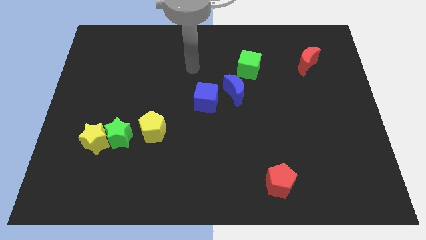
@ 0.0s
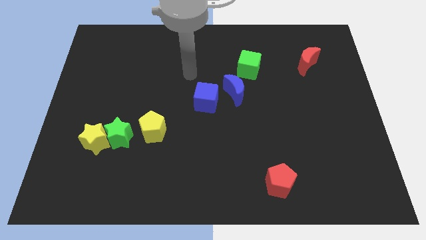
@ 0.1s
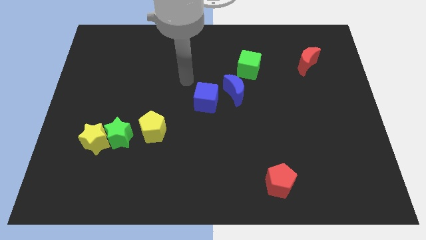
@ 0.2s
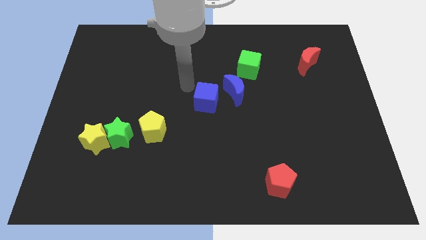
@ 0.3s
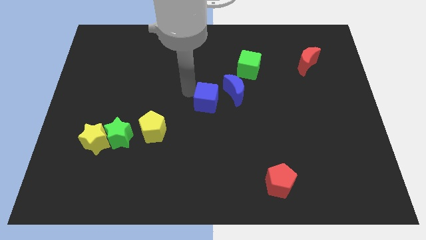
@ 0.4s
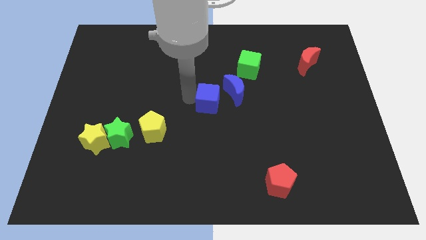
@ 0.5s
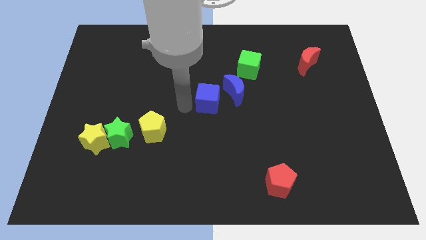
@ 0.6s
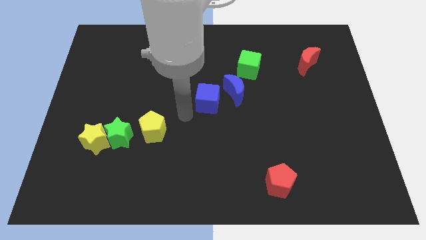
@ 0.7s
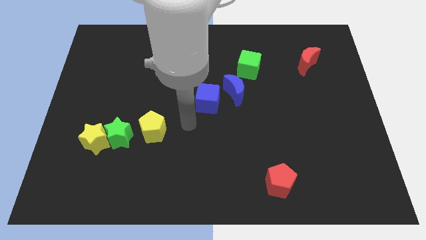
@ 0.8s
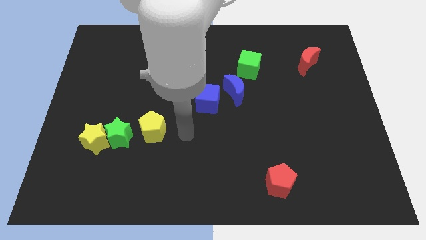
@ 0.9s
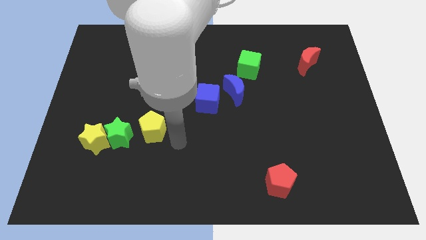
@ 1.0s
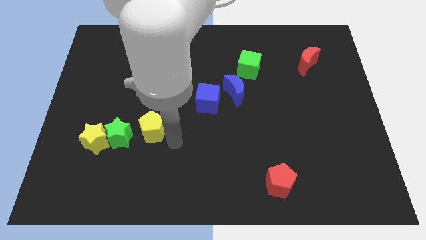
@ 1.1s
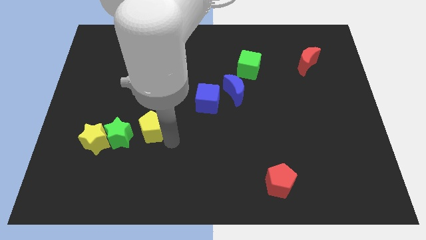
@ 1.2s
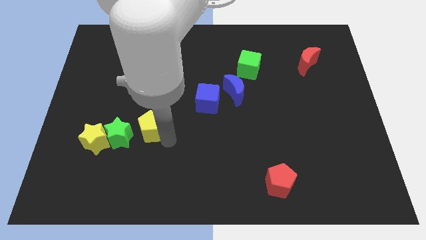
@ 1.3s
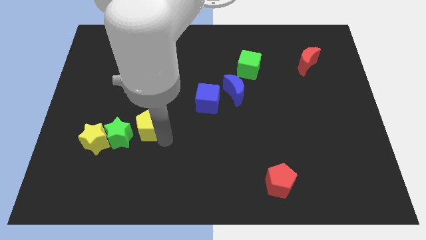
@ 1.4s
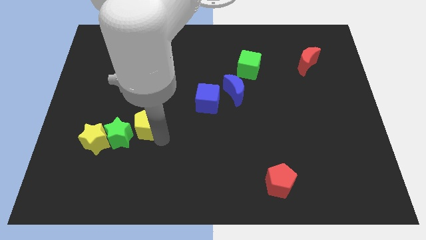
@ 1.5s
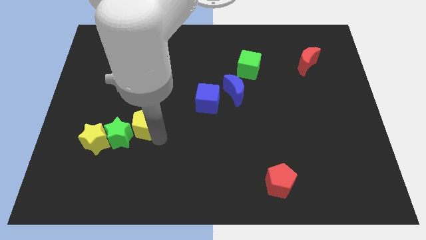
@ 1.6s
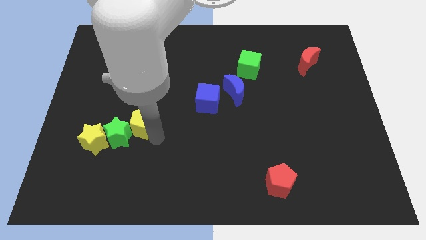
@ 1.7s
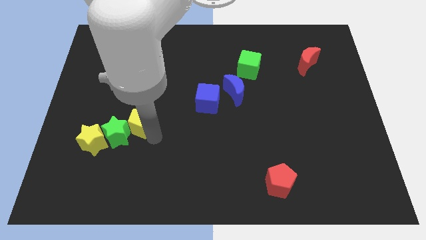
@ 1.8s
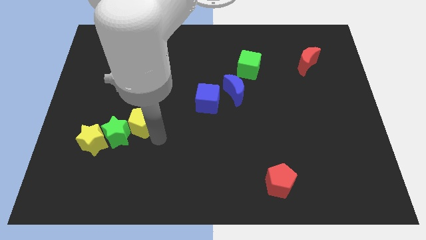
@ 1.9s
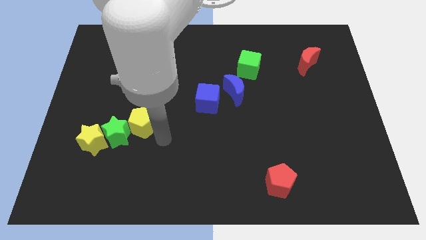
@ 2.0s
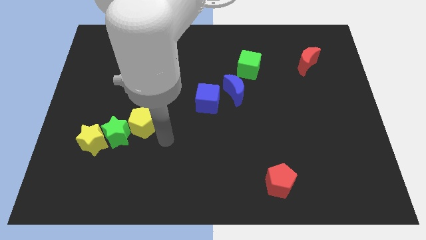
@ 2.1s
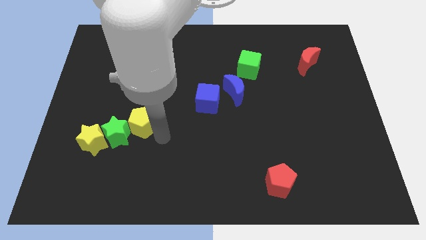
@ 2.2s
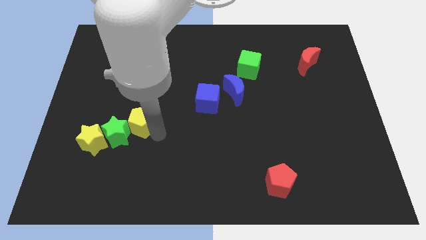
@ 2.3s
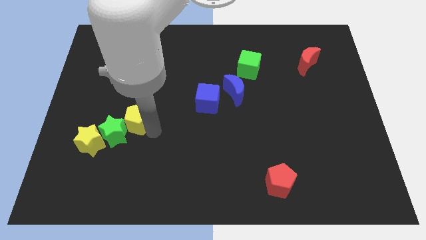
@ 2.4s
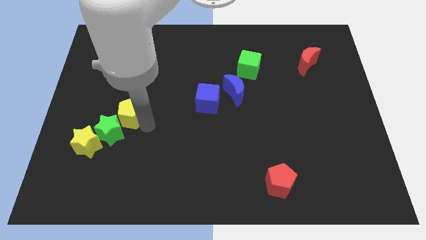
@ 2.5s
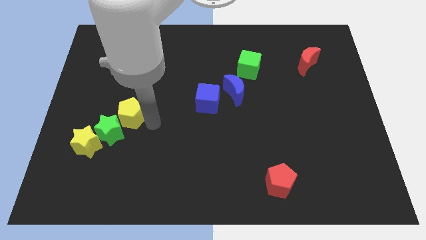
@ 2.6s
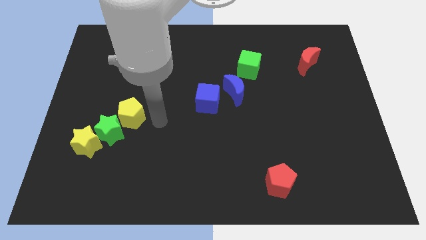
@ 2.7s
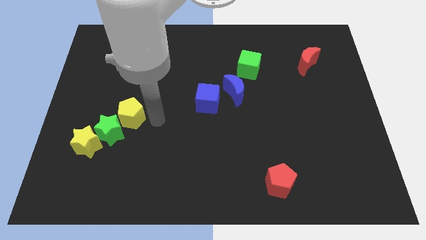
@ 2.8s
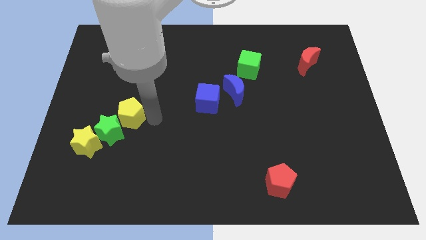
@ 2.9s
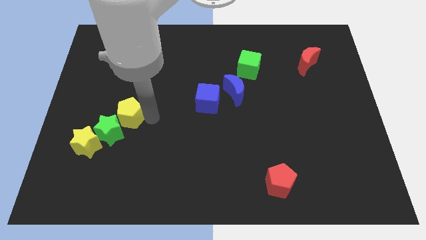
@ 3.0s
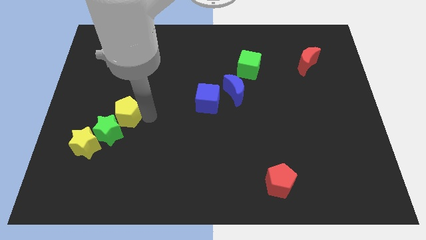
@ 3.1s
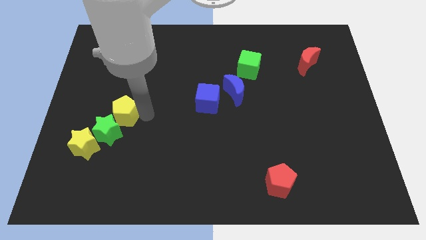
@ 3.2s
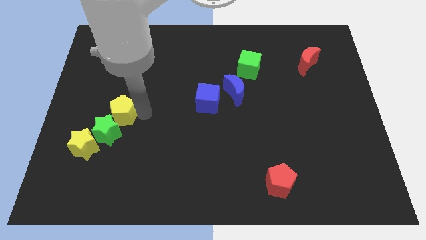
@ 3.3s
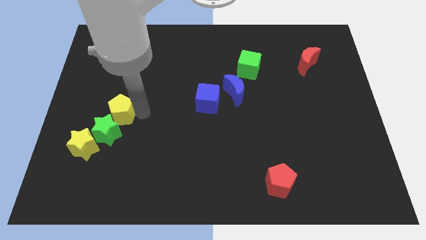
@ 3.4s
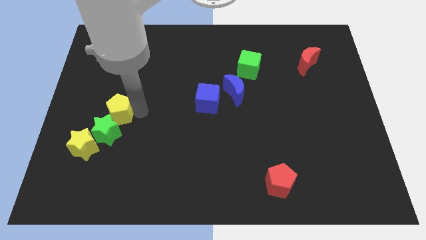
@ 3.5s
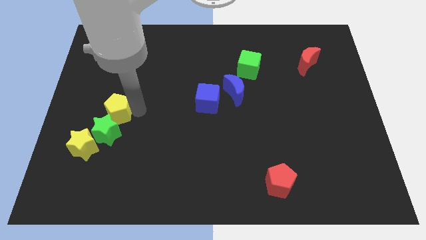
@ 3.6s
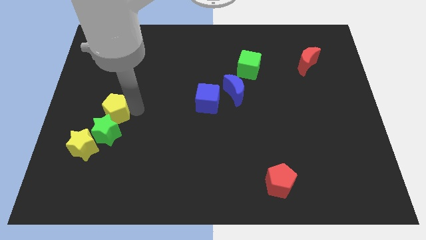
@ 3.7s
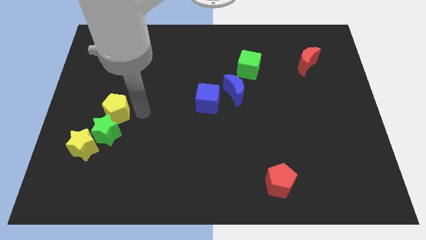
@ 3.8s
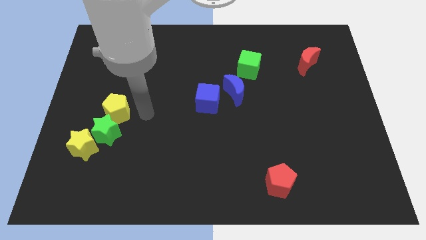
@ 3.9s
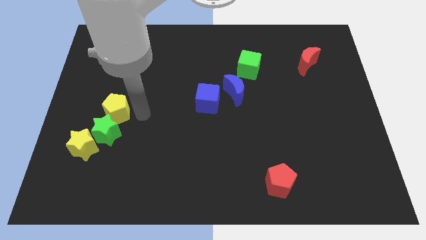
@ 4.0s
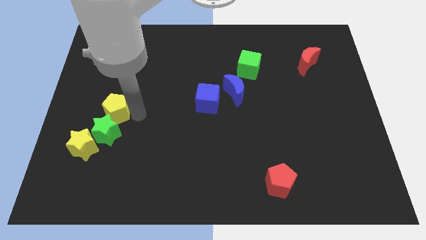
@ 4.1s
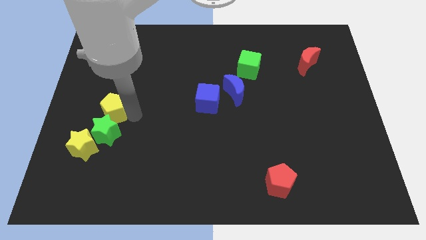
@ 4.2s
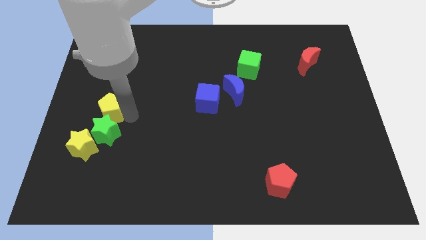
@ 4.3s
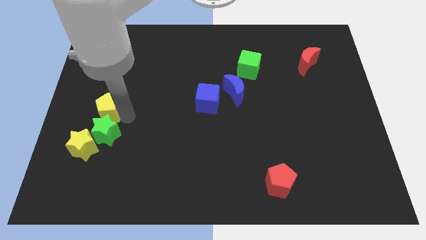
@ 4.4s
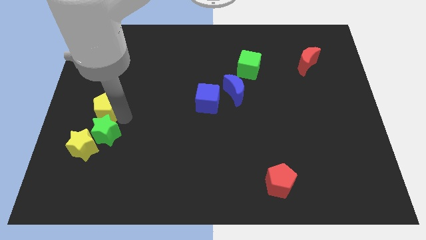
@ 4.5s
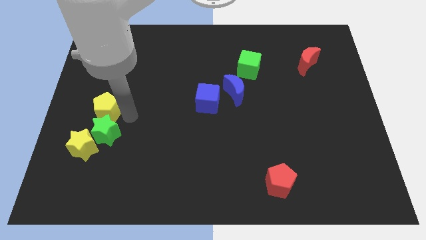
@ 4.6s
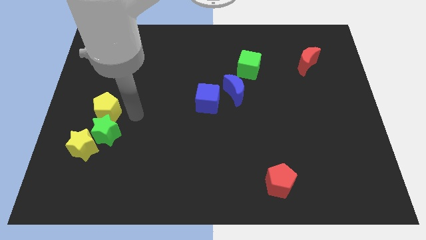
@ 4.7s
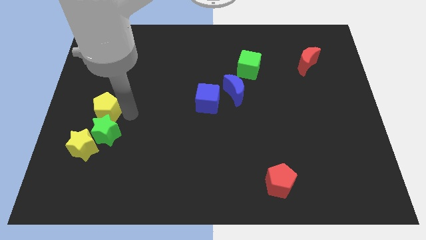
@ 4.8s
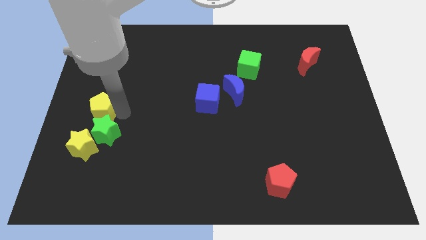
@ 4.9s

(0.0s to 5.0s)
put the yellow pentagon to the center left

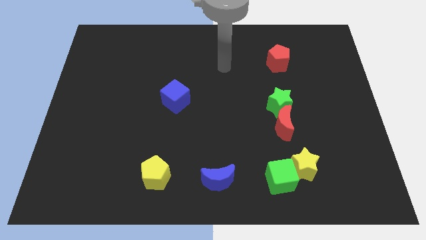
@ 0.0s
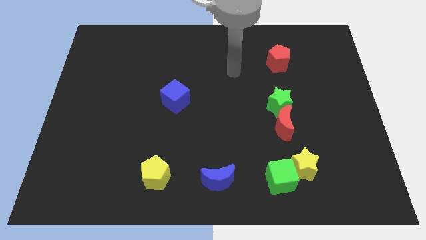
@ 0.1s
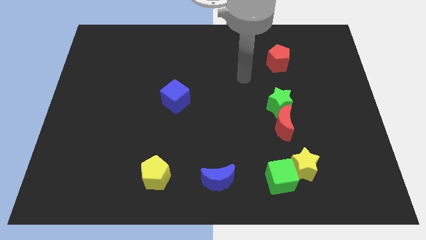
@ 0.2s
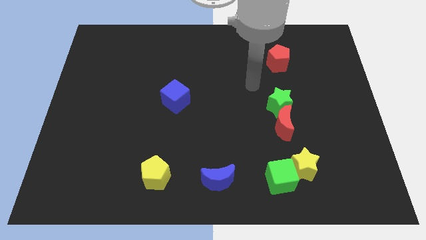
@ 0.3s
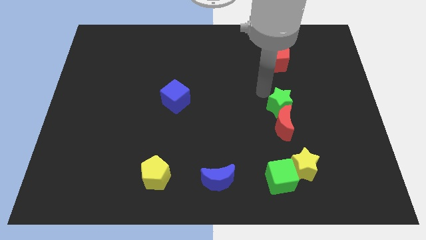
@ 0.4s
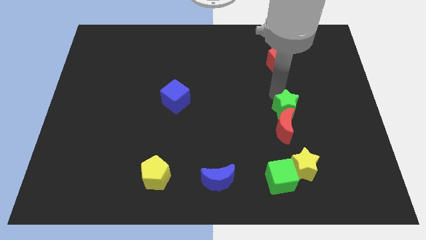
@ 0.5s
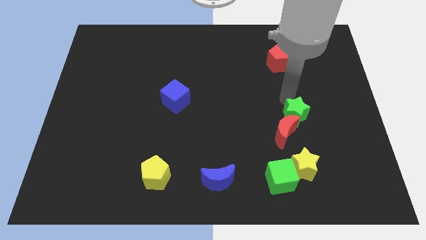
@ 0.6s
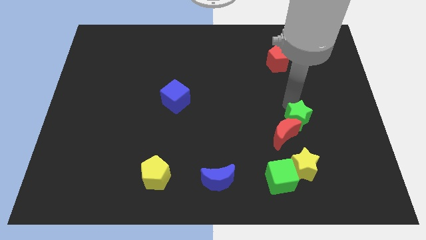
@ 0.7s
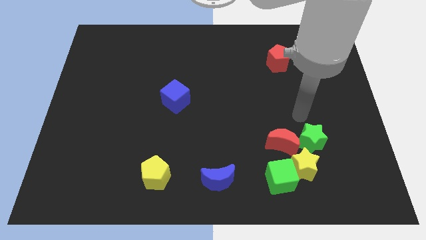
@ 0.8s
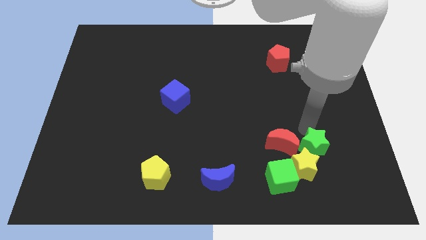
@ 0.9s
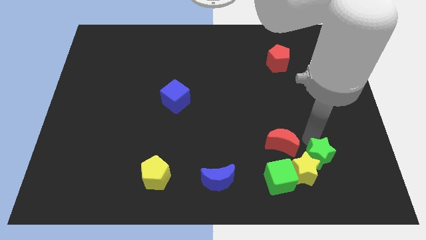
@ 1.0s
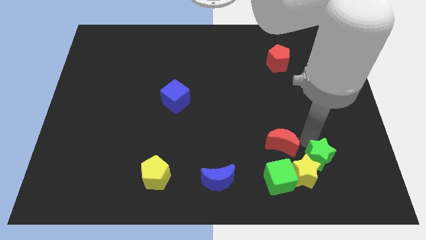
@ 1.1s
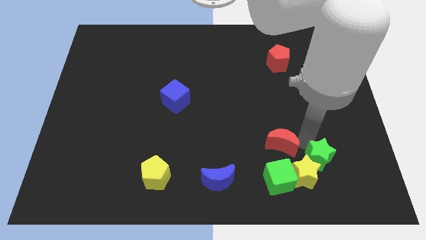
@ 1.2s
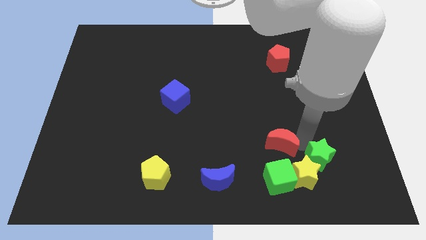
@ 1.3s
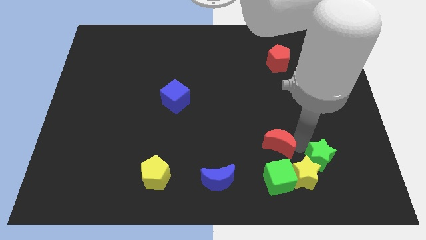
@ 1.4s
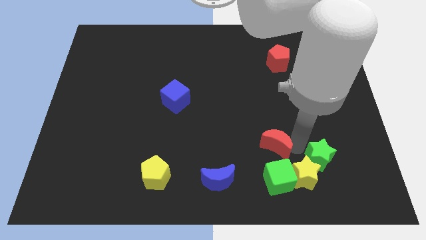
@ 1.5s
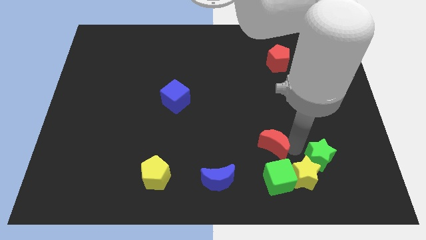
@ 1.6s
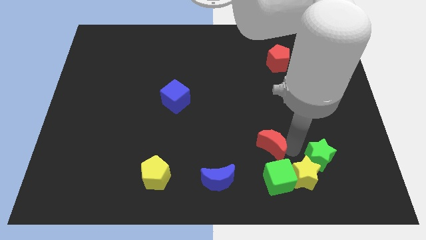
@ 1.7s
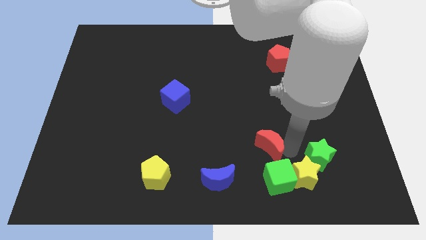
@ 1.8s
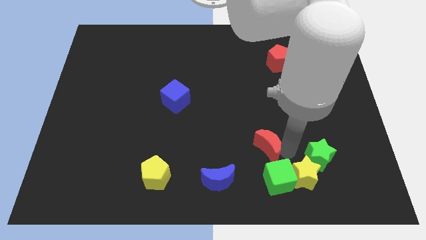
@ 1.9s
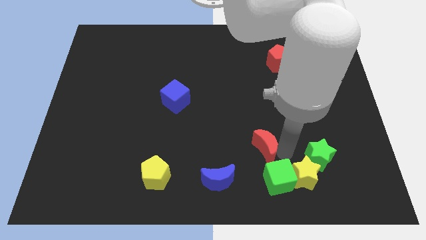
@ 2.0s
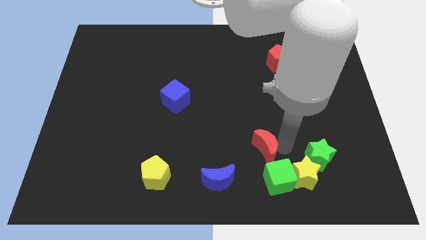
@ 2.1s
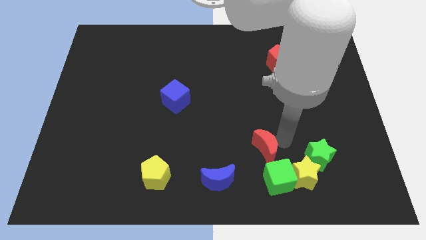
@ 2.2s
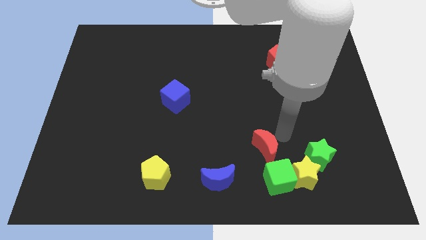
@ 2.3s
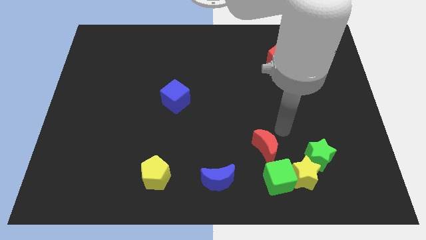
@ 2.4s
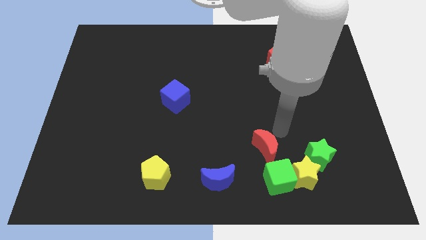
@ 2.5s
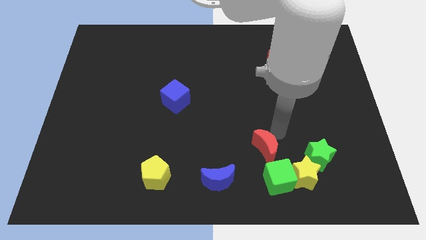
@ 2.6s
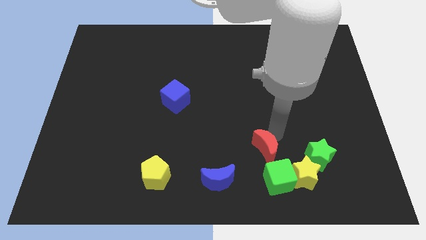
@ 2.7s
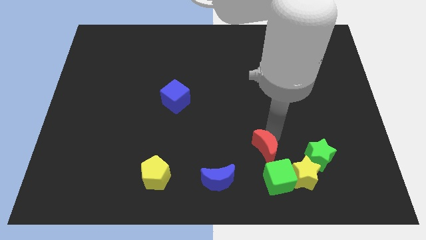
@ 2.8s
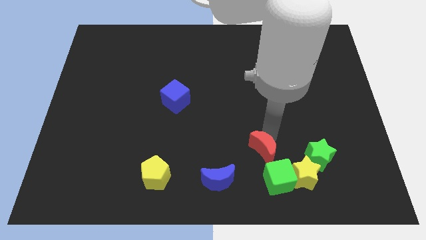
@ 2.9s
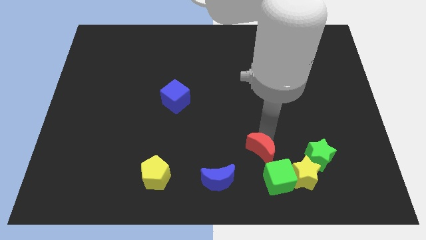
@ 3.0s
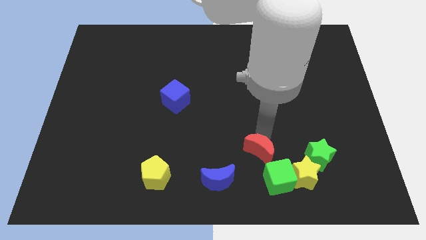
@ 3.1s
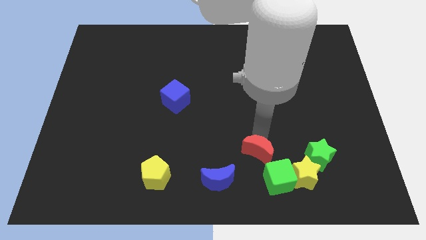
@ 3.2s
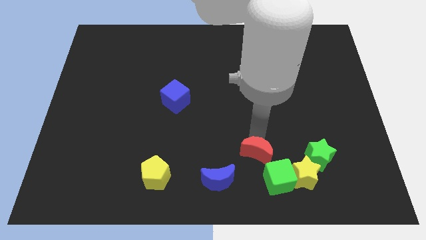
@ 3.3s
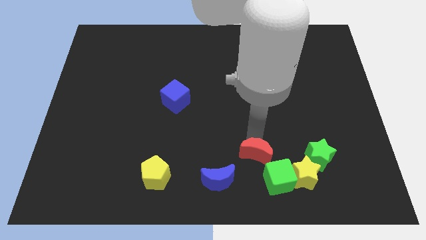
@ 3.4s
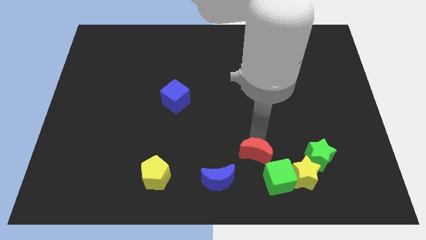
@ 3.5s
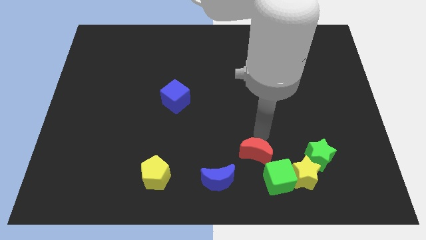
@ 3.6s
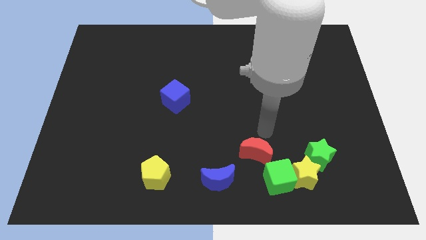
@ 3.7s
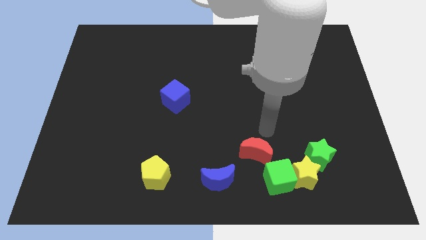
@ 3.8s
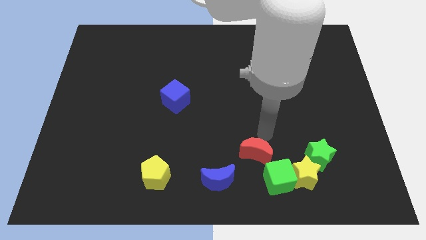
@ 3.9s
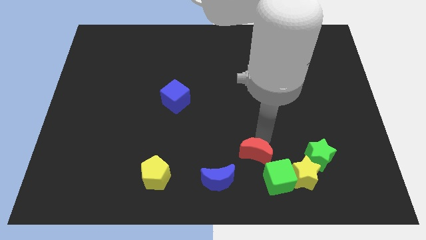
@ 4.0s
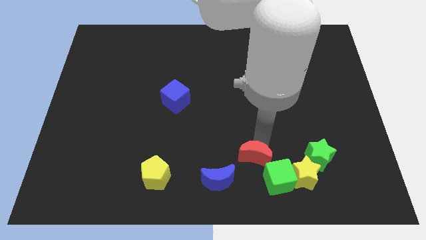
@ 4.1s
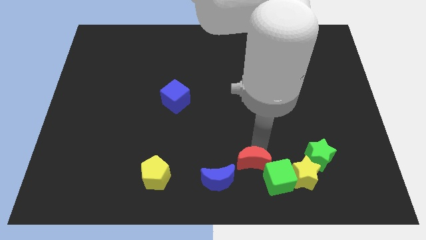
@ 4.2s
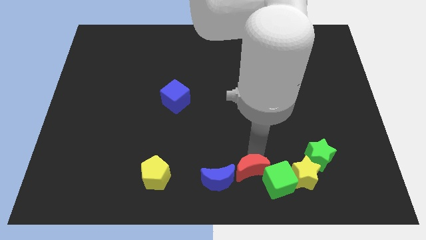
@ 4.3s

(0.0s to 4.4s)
slide the red moon to the bottom side
